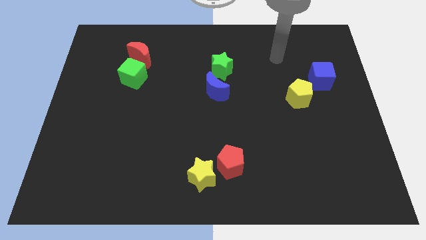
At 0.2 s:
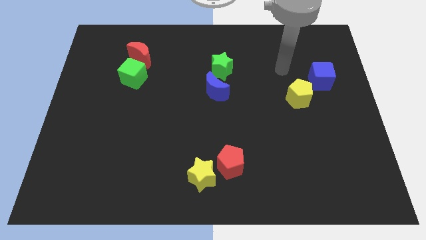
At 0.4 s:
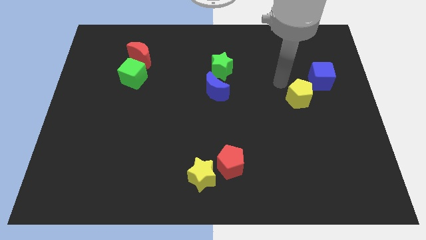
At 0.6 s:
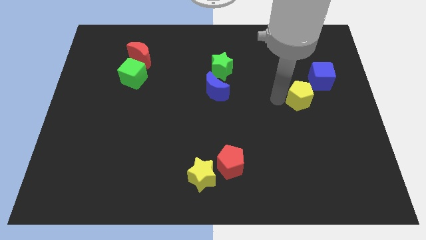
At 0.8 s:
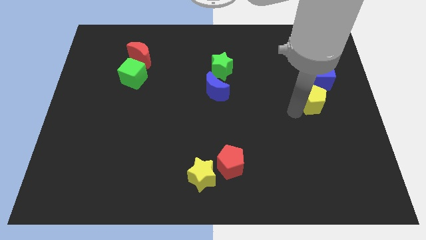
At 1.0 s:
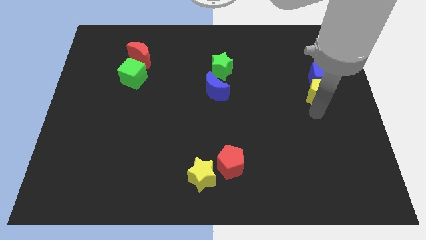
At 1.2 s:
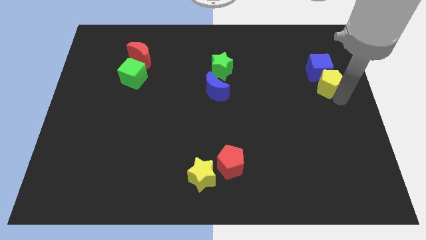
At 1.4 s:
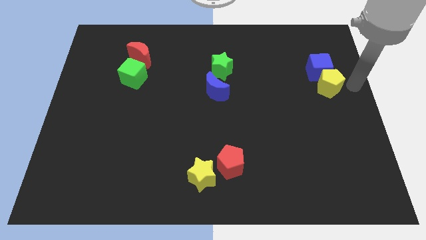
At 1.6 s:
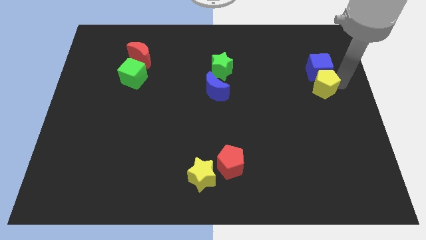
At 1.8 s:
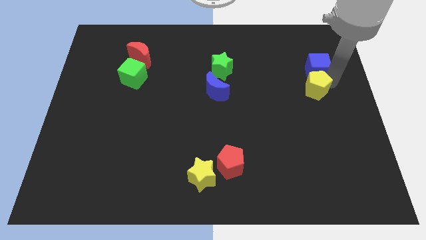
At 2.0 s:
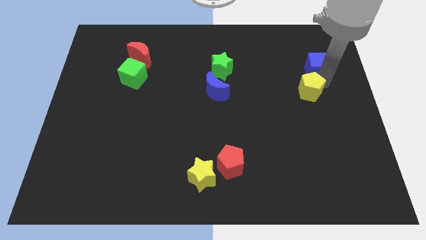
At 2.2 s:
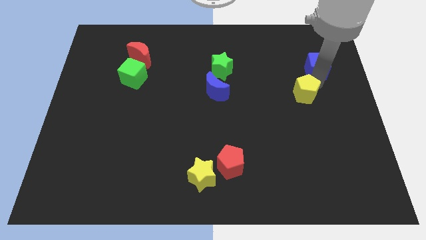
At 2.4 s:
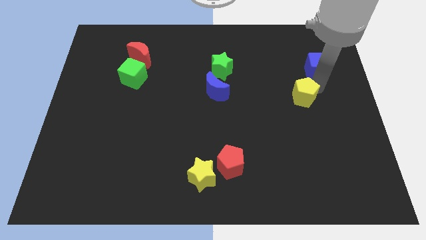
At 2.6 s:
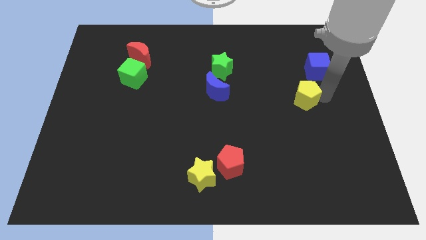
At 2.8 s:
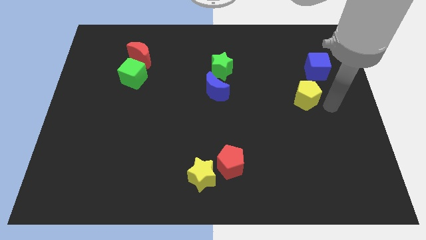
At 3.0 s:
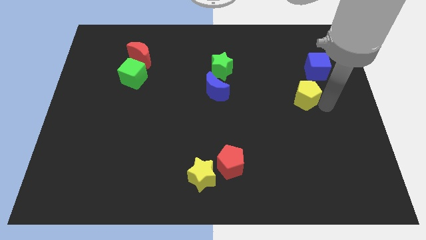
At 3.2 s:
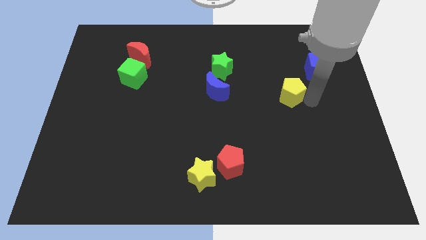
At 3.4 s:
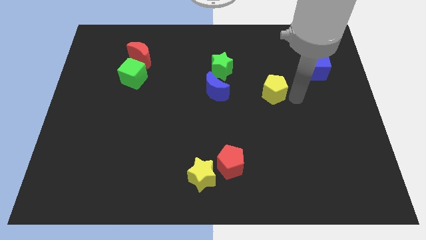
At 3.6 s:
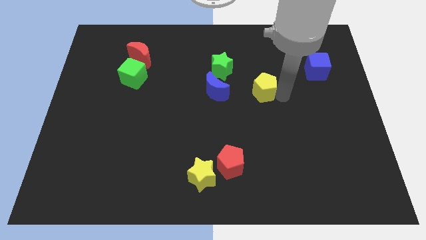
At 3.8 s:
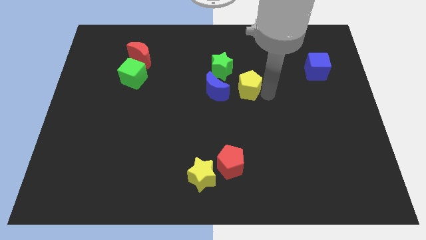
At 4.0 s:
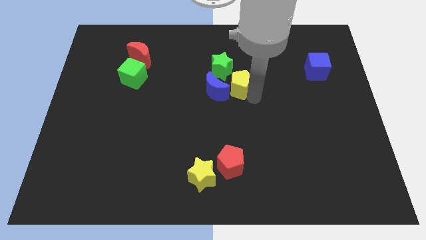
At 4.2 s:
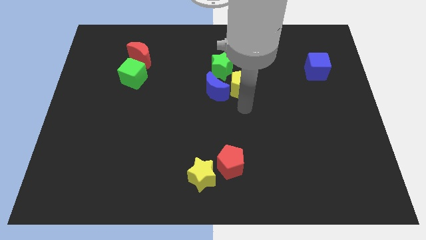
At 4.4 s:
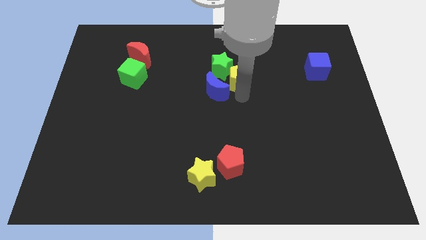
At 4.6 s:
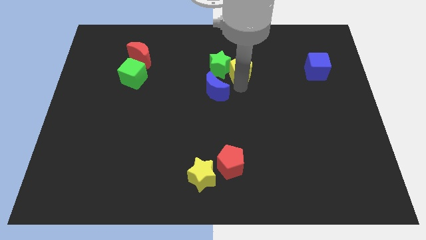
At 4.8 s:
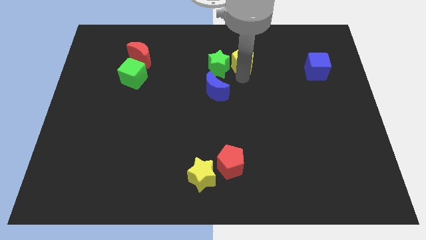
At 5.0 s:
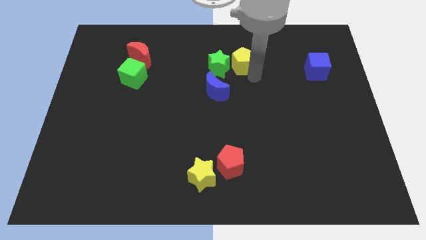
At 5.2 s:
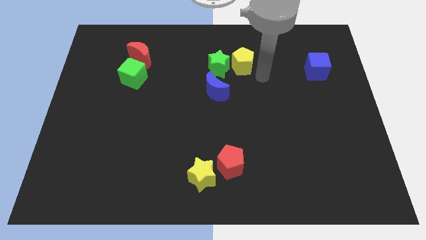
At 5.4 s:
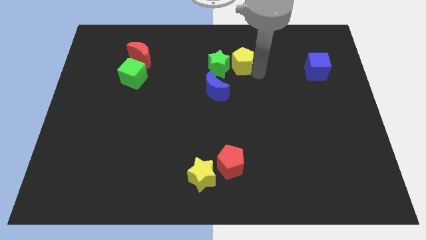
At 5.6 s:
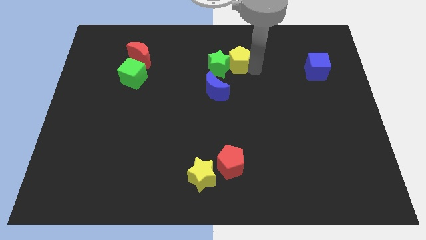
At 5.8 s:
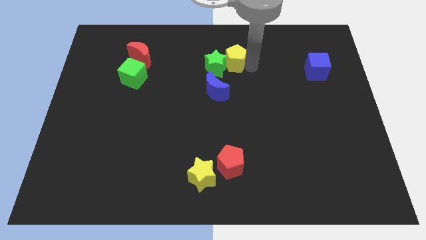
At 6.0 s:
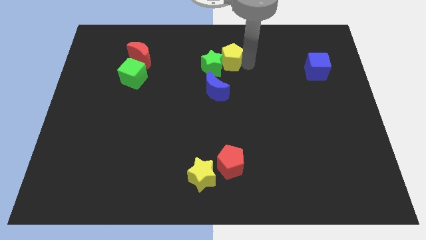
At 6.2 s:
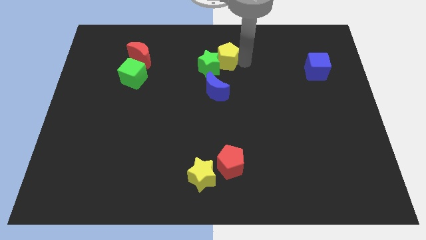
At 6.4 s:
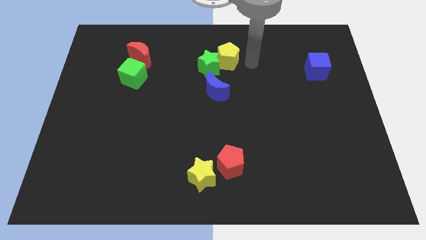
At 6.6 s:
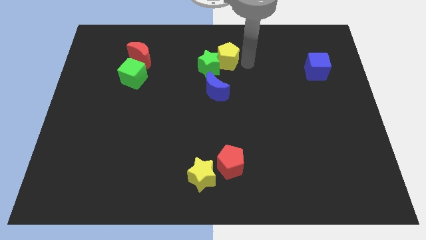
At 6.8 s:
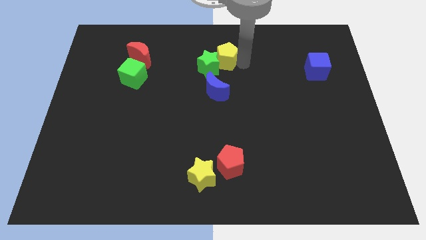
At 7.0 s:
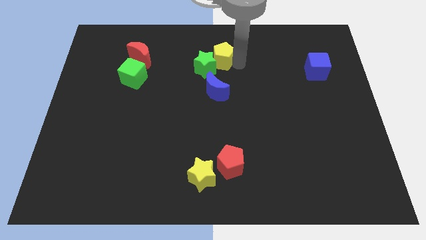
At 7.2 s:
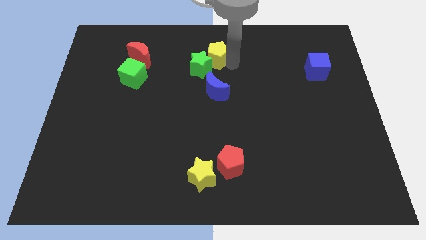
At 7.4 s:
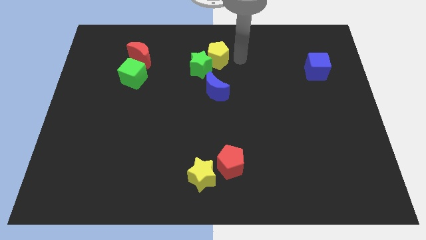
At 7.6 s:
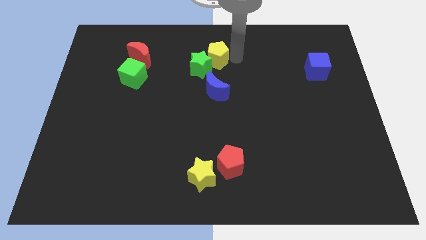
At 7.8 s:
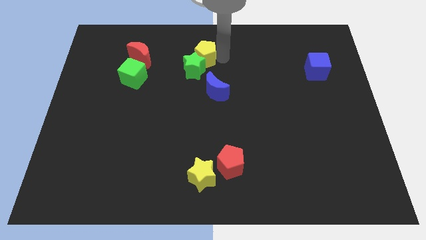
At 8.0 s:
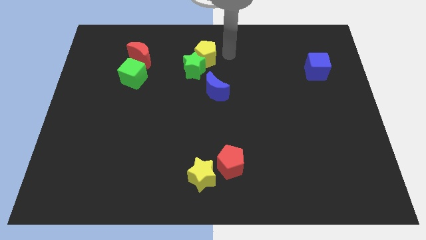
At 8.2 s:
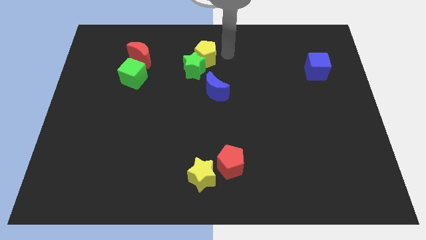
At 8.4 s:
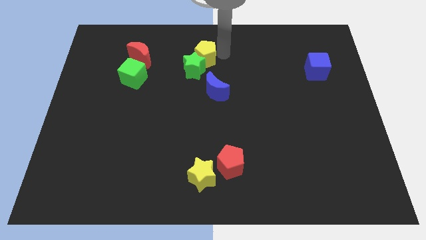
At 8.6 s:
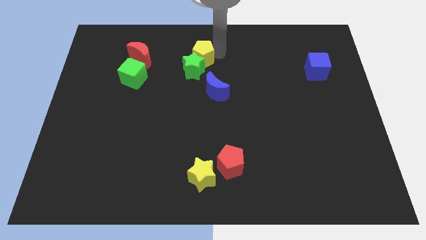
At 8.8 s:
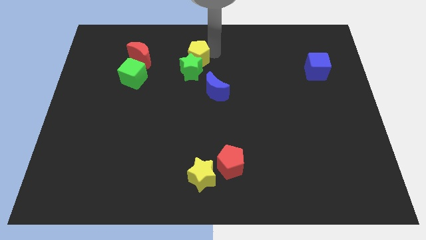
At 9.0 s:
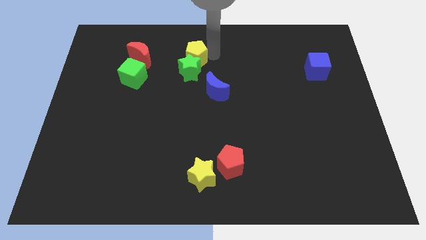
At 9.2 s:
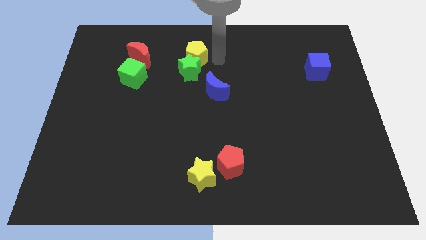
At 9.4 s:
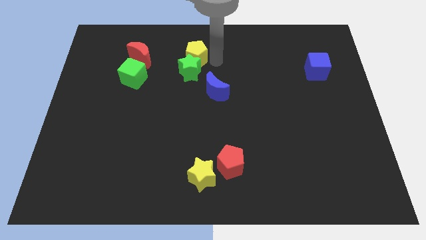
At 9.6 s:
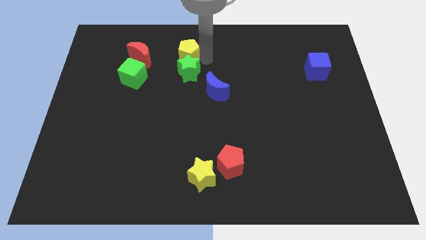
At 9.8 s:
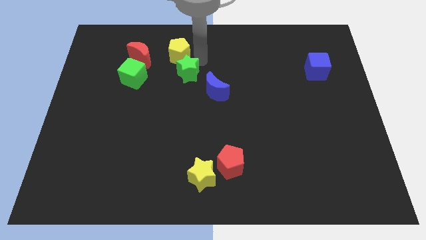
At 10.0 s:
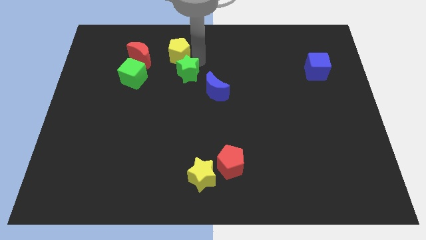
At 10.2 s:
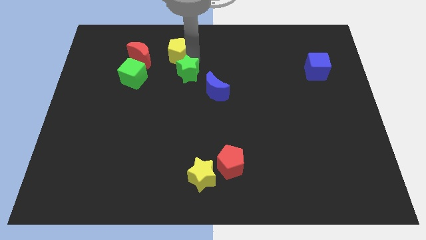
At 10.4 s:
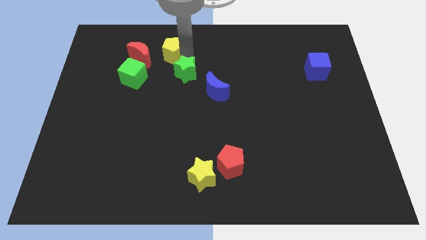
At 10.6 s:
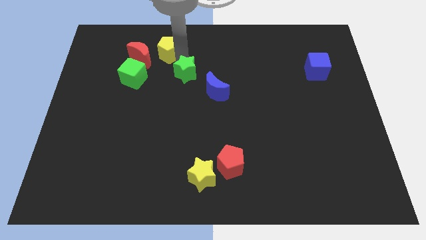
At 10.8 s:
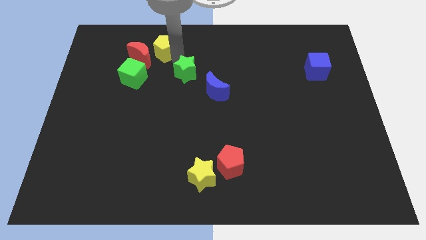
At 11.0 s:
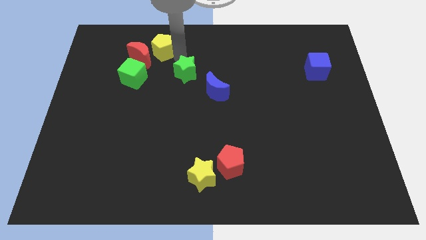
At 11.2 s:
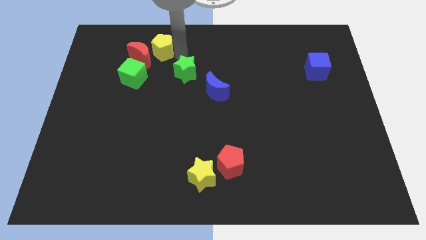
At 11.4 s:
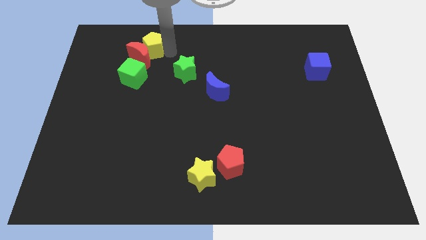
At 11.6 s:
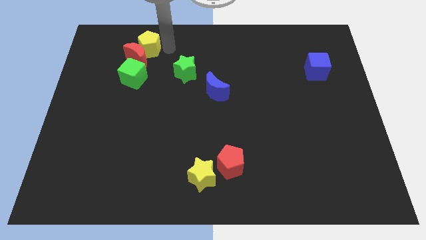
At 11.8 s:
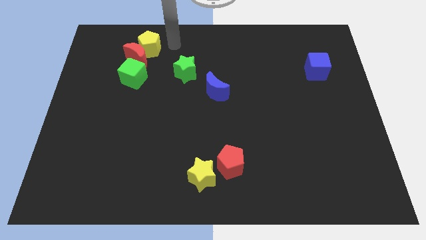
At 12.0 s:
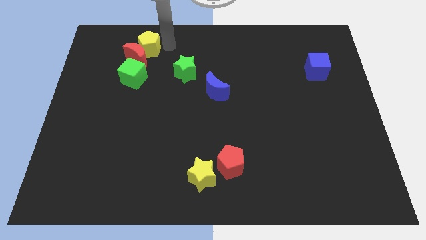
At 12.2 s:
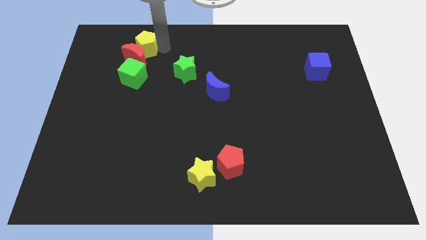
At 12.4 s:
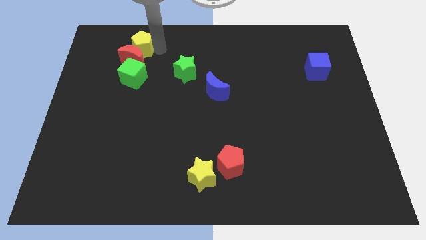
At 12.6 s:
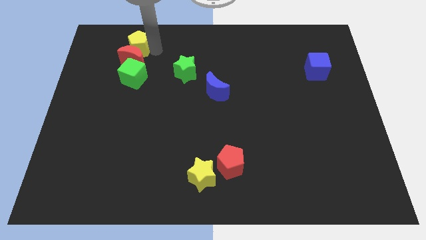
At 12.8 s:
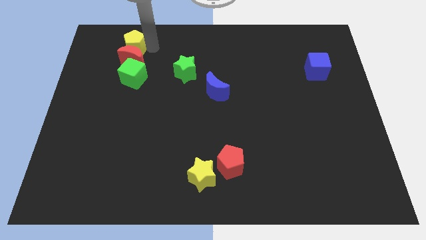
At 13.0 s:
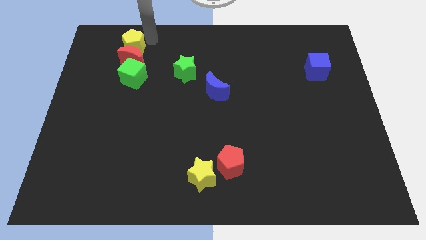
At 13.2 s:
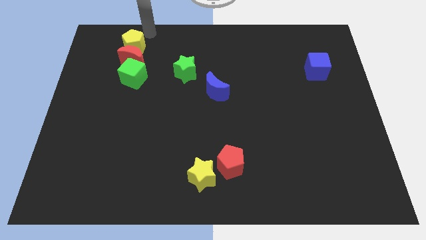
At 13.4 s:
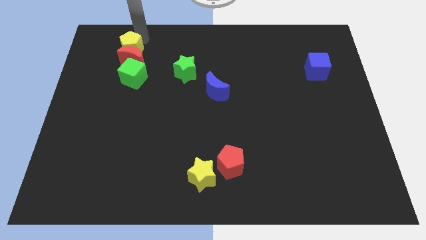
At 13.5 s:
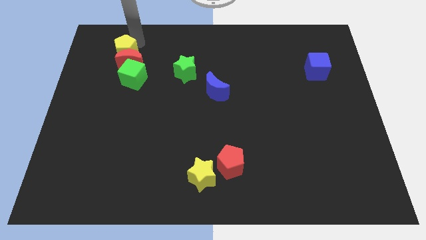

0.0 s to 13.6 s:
push the yellow pentagon to the top left side of the green cube

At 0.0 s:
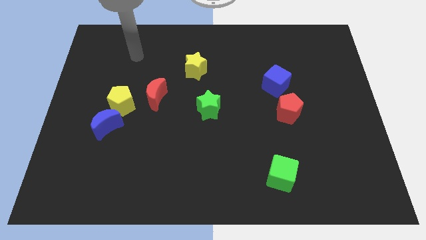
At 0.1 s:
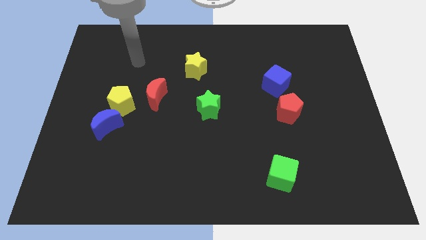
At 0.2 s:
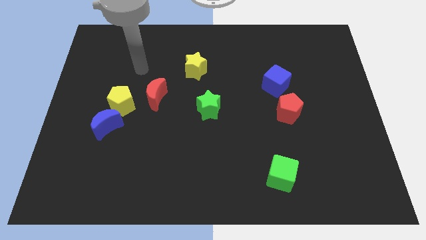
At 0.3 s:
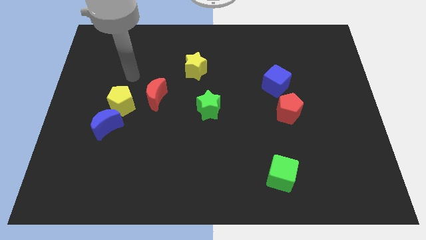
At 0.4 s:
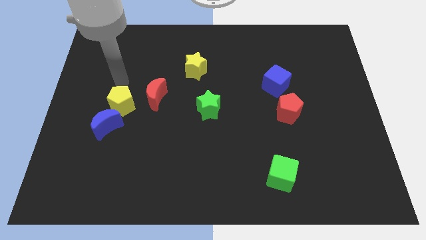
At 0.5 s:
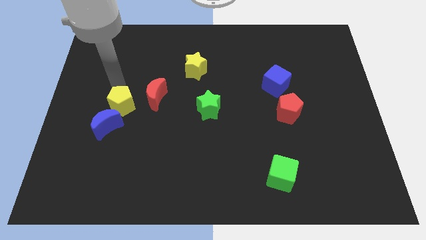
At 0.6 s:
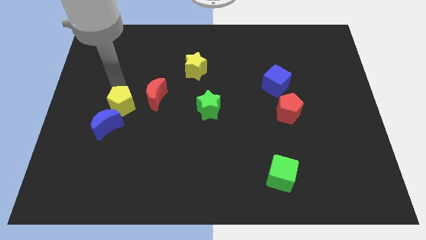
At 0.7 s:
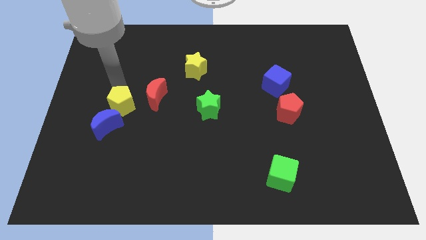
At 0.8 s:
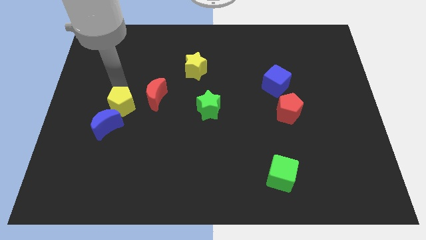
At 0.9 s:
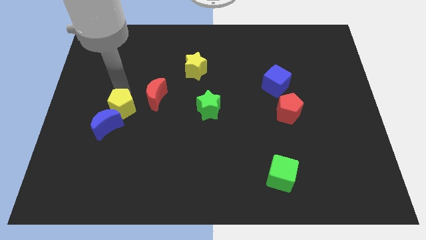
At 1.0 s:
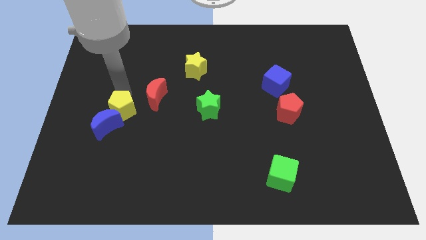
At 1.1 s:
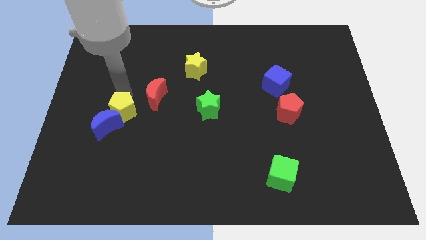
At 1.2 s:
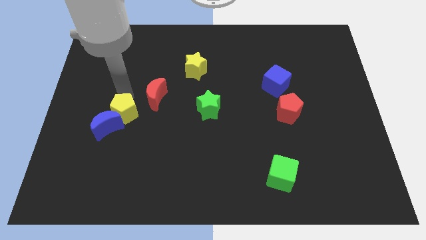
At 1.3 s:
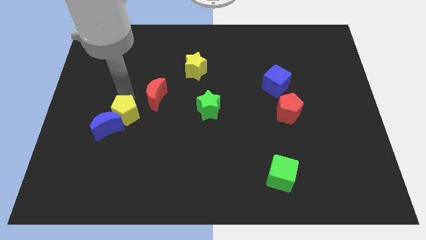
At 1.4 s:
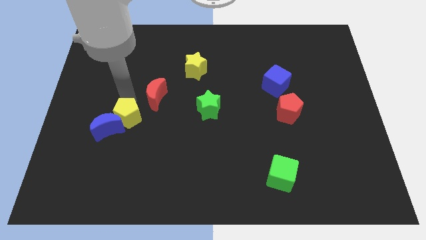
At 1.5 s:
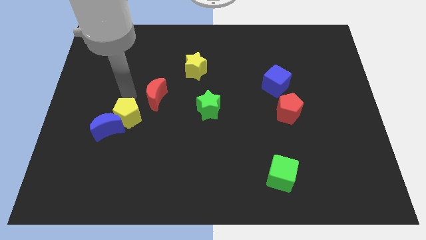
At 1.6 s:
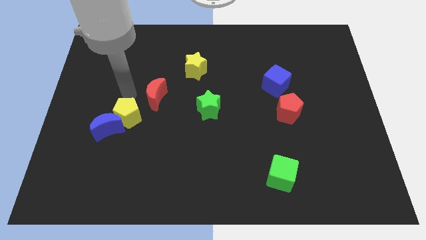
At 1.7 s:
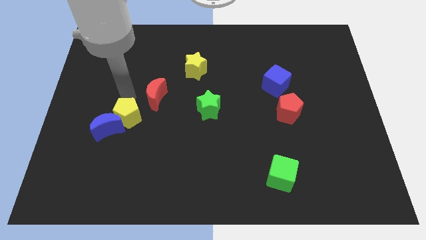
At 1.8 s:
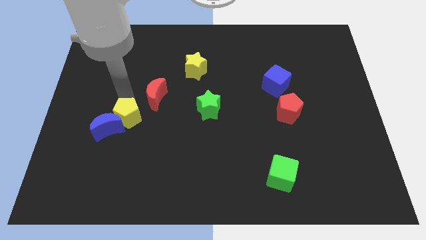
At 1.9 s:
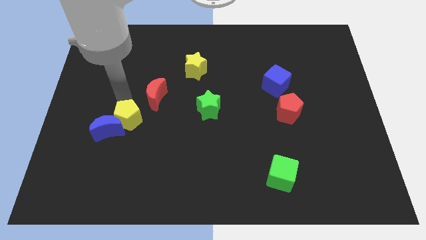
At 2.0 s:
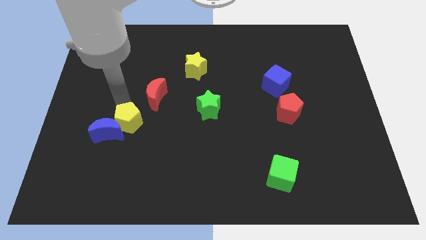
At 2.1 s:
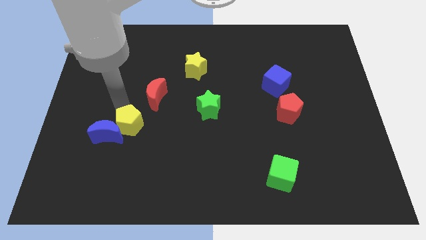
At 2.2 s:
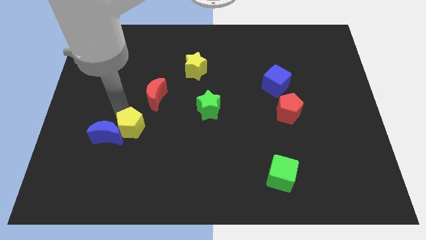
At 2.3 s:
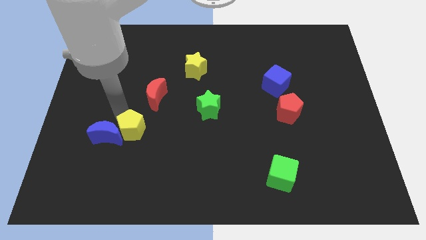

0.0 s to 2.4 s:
push the yellow pentagon diagonally down and to the right of the blue moon
